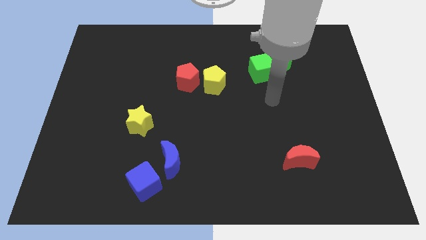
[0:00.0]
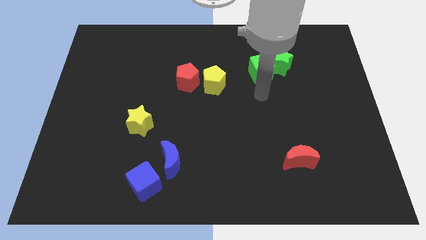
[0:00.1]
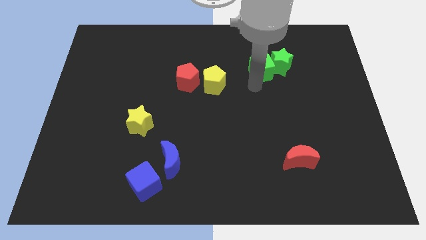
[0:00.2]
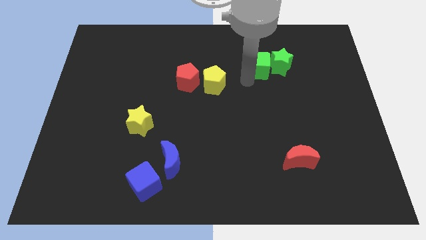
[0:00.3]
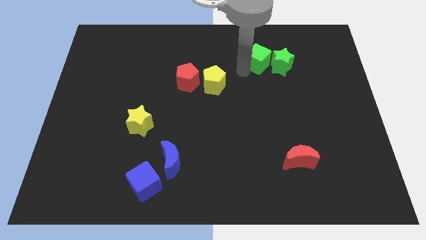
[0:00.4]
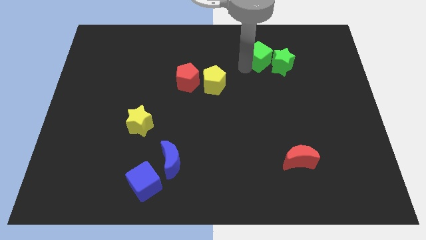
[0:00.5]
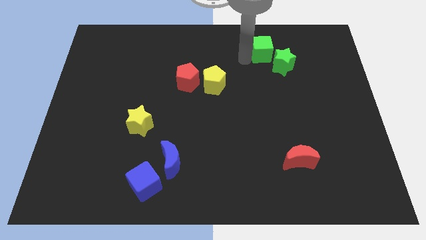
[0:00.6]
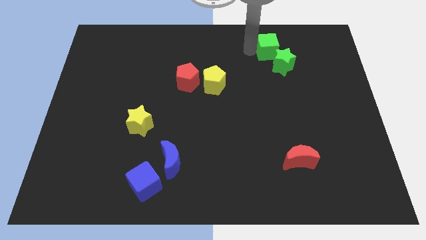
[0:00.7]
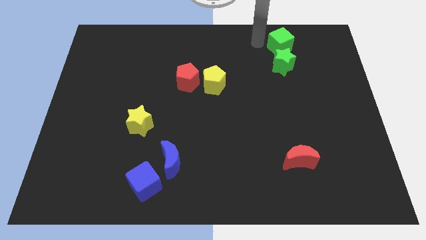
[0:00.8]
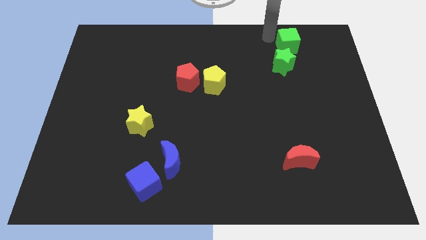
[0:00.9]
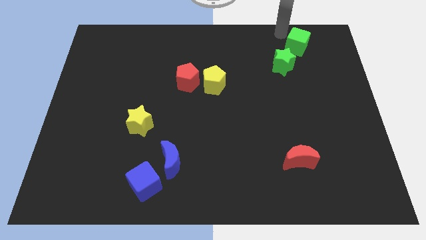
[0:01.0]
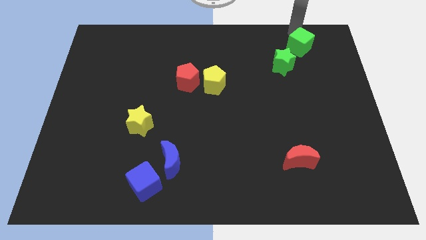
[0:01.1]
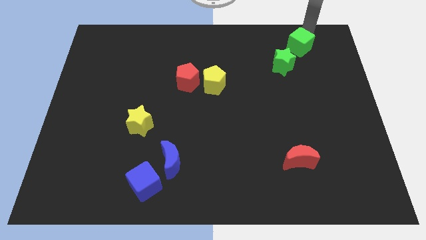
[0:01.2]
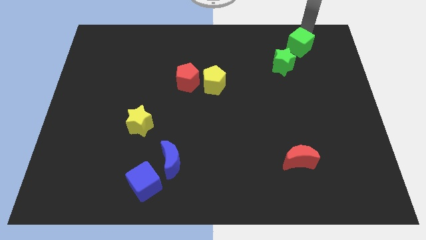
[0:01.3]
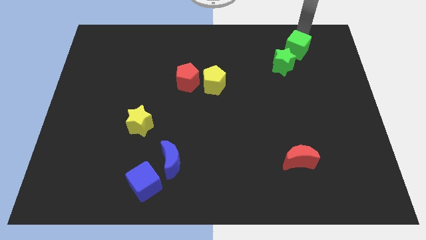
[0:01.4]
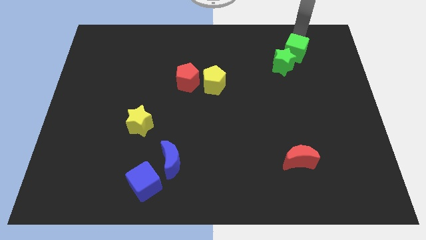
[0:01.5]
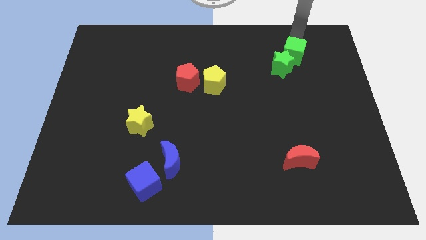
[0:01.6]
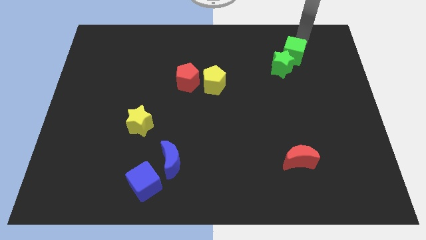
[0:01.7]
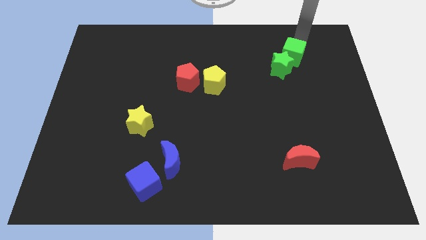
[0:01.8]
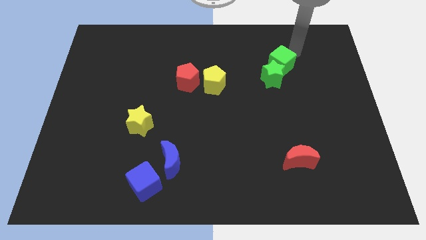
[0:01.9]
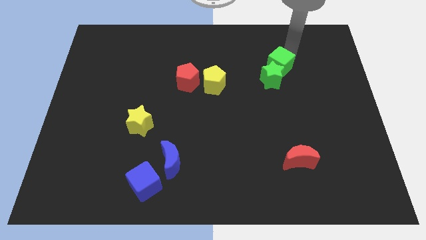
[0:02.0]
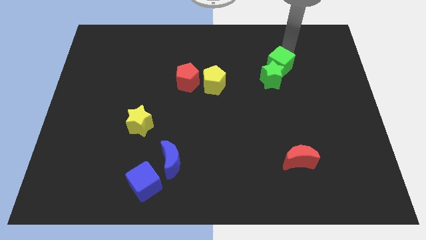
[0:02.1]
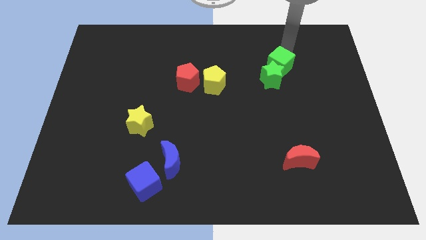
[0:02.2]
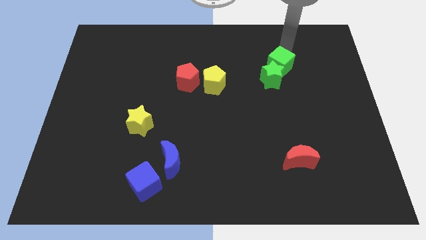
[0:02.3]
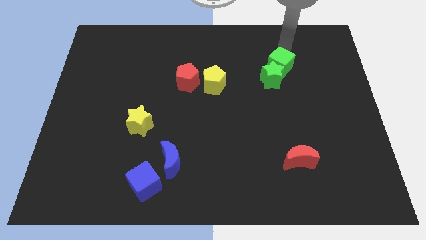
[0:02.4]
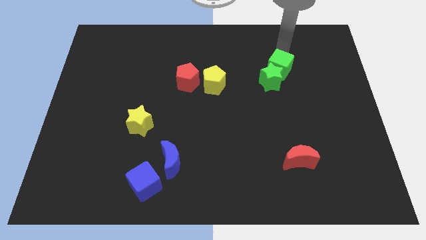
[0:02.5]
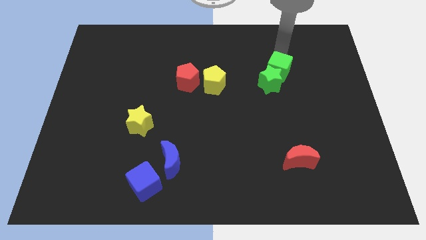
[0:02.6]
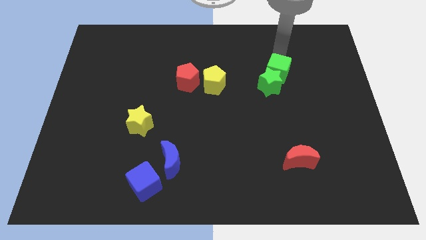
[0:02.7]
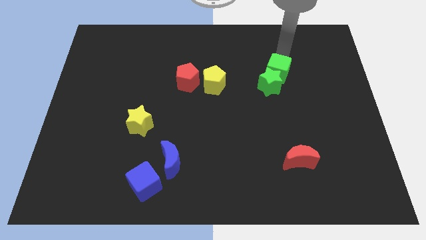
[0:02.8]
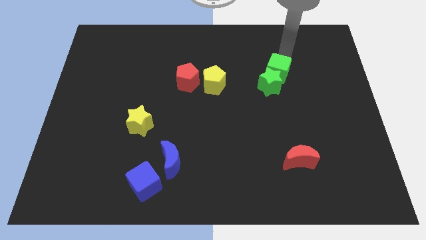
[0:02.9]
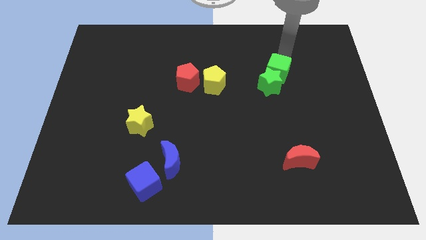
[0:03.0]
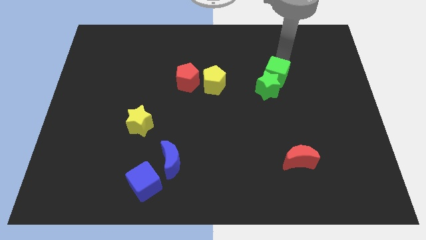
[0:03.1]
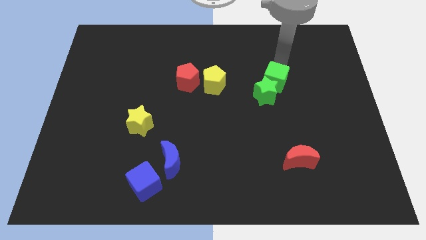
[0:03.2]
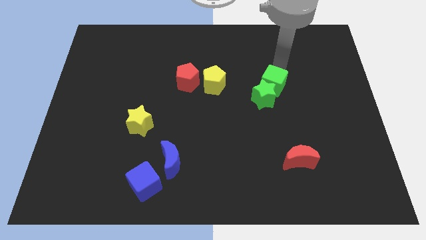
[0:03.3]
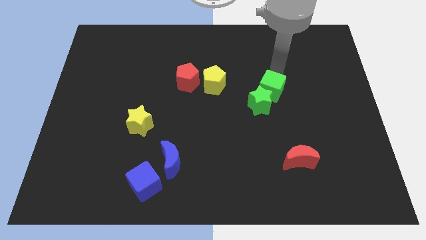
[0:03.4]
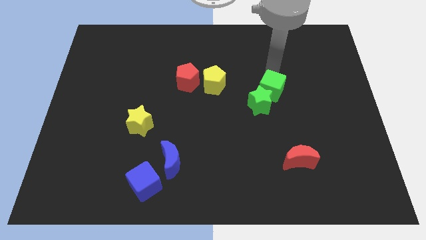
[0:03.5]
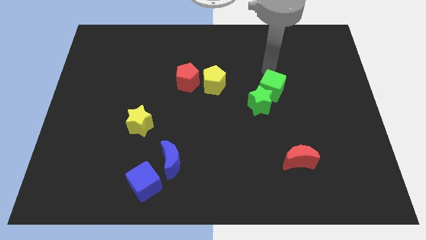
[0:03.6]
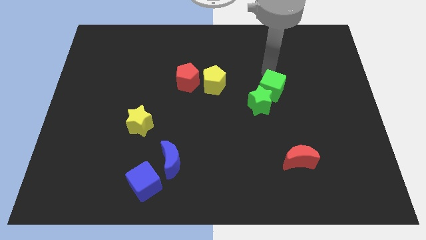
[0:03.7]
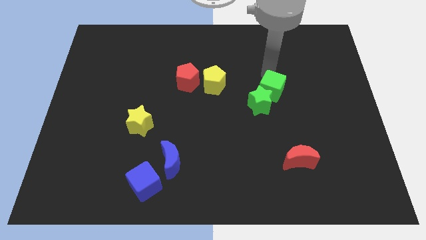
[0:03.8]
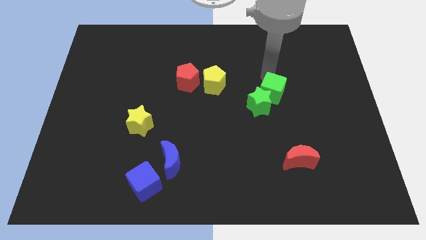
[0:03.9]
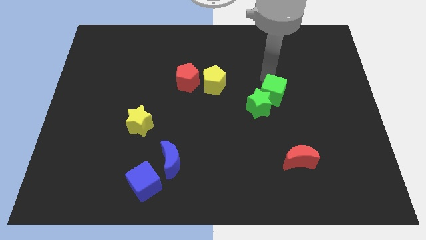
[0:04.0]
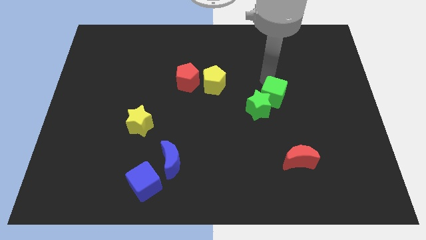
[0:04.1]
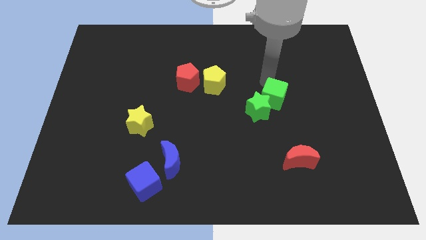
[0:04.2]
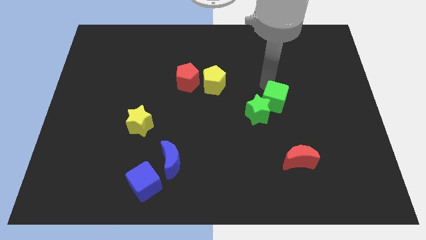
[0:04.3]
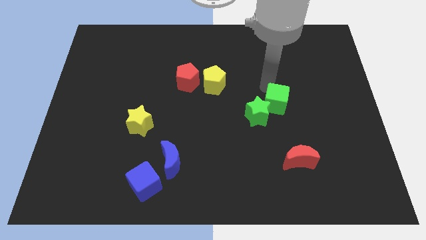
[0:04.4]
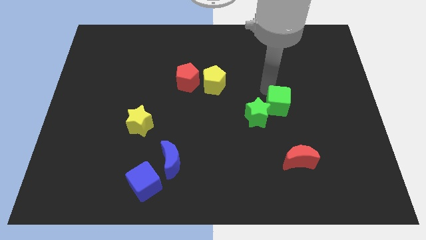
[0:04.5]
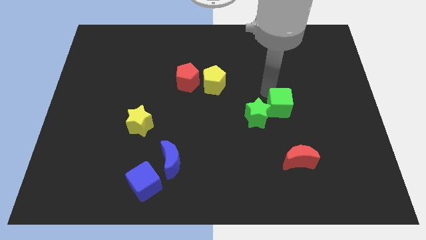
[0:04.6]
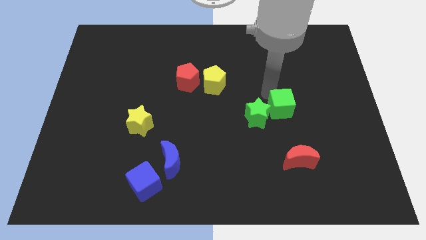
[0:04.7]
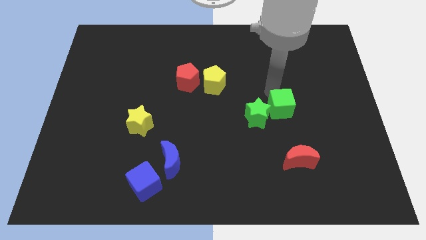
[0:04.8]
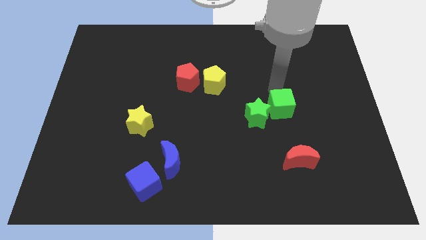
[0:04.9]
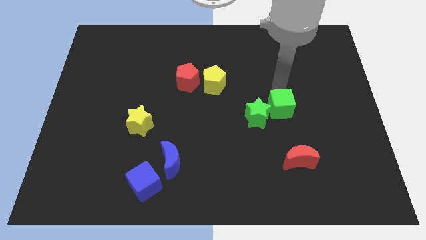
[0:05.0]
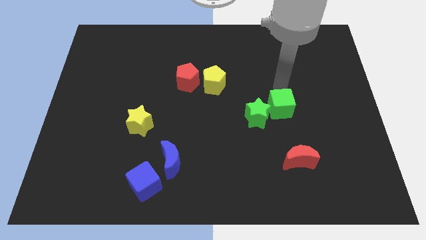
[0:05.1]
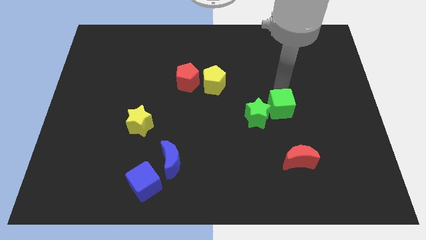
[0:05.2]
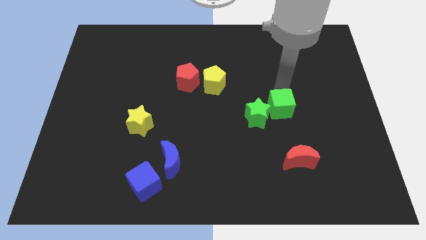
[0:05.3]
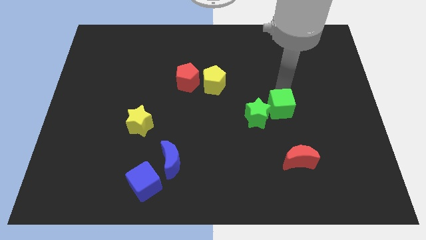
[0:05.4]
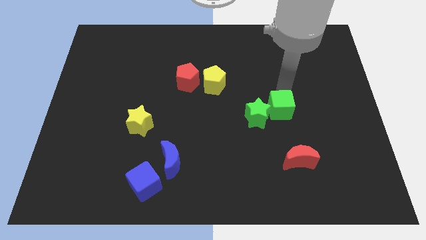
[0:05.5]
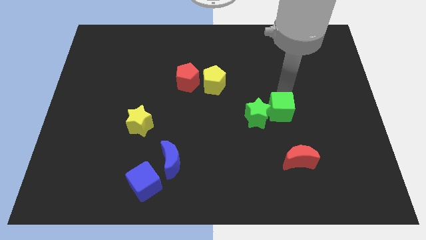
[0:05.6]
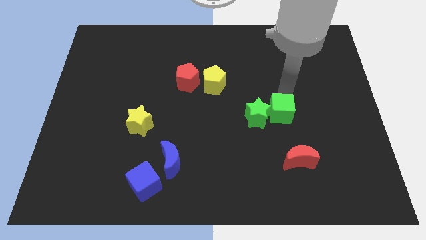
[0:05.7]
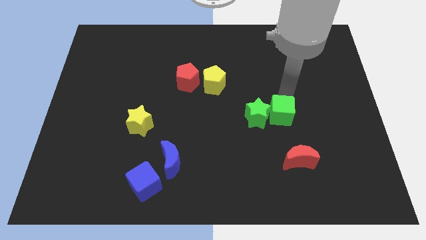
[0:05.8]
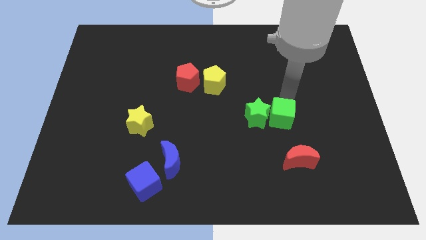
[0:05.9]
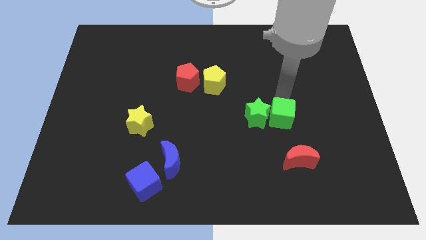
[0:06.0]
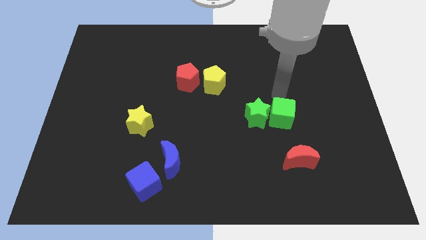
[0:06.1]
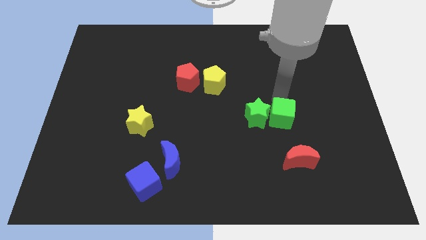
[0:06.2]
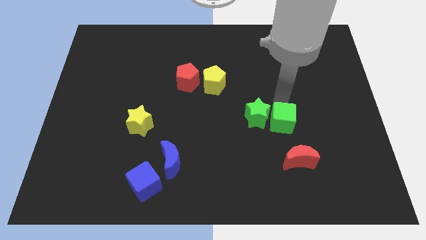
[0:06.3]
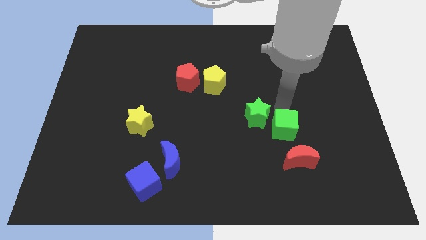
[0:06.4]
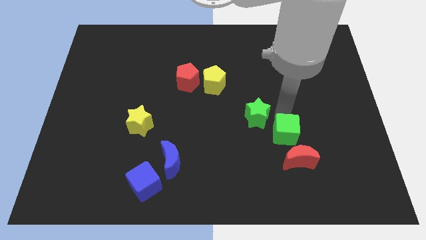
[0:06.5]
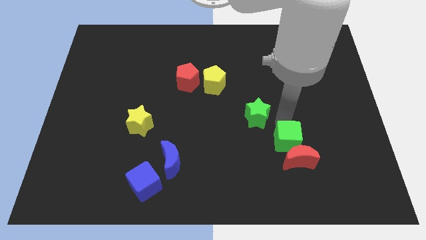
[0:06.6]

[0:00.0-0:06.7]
move the green cube next to the red moon

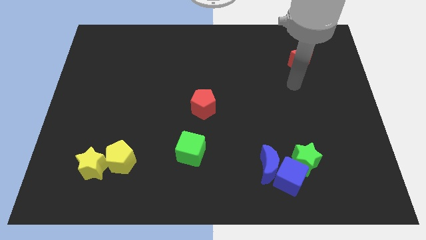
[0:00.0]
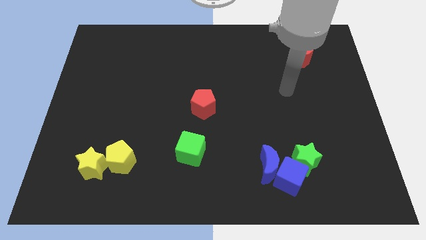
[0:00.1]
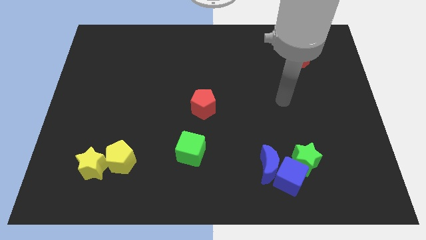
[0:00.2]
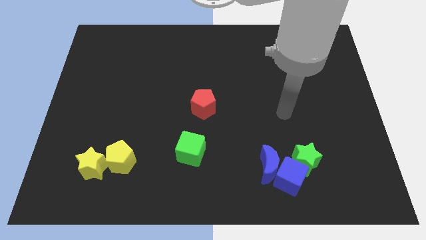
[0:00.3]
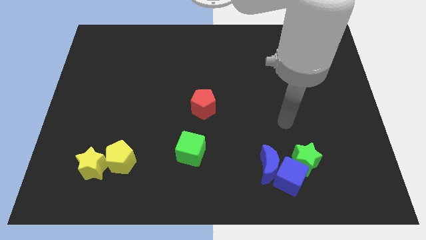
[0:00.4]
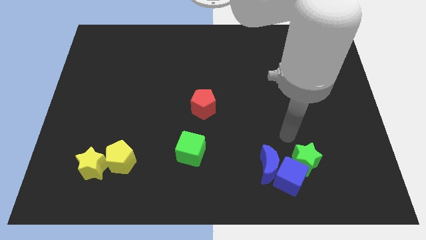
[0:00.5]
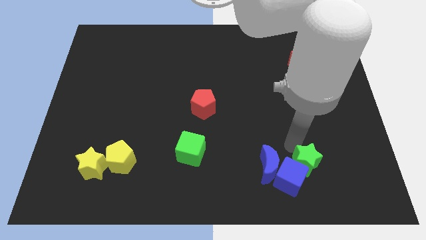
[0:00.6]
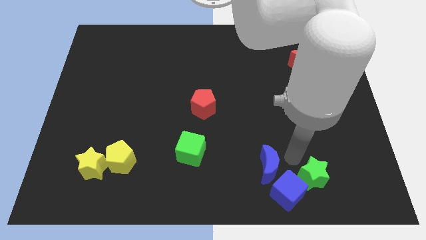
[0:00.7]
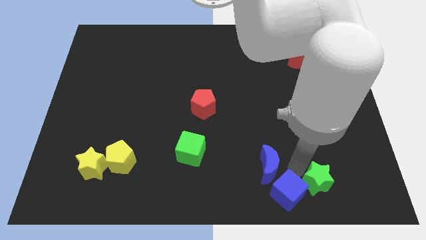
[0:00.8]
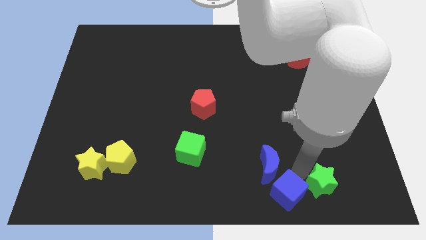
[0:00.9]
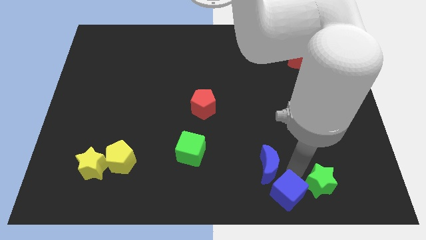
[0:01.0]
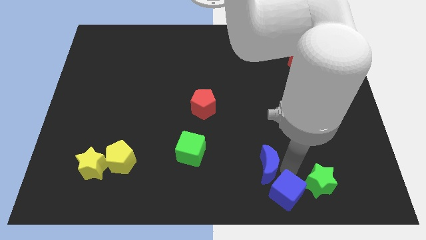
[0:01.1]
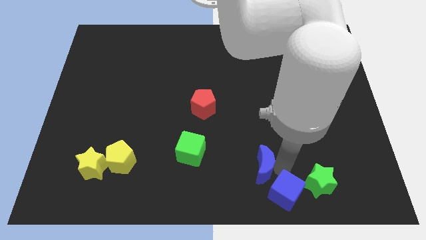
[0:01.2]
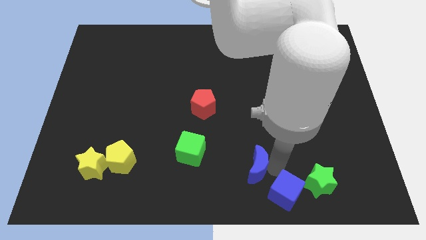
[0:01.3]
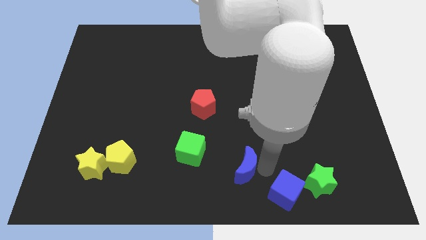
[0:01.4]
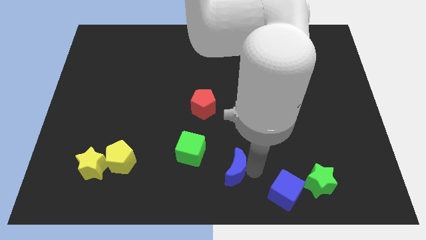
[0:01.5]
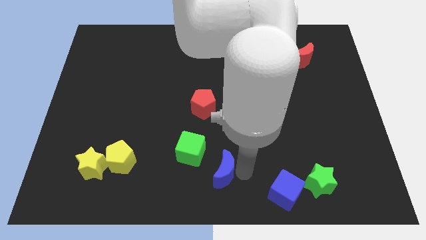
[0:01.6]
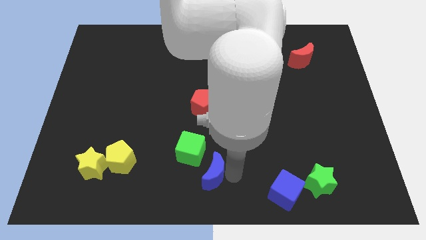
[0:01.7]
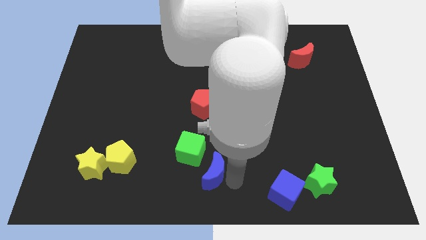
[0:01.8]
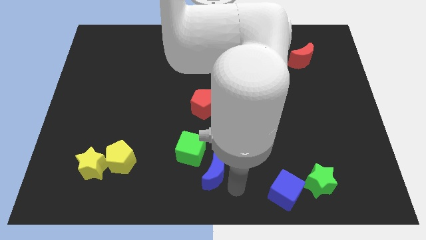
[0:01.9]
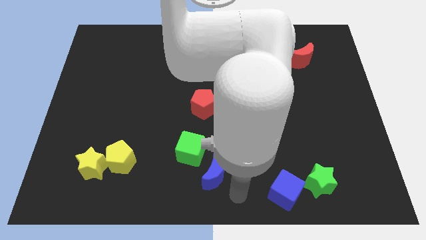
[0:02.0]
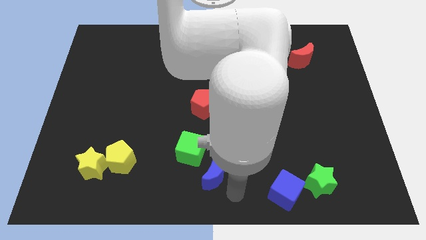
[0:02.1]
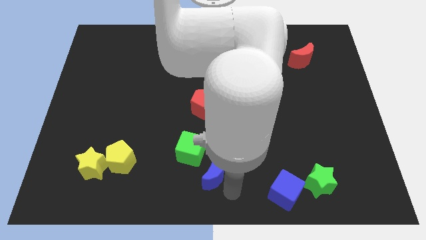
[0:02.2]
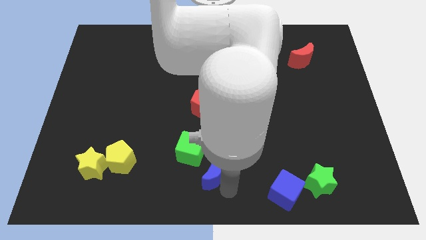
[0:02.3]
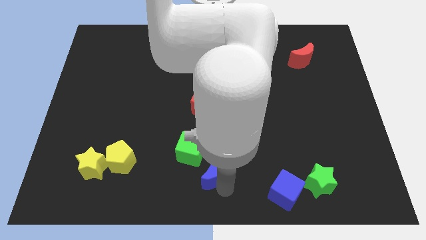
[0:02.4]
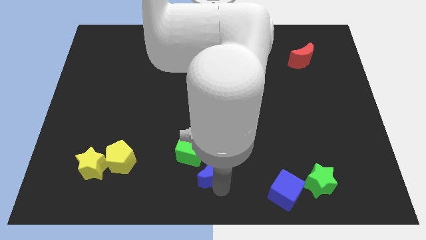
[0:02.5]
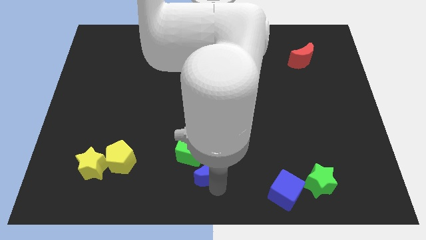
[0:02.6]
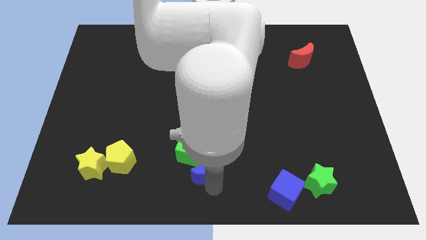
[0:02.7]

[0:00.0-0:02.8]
move the blue moon towards the green cube
